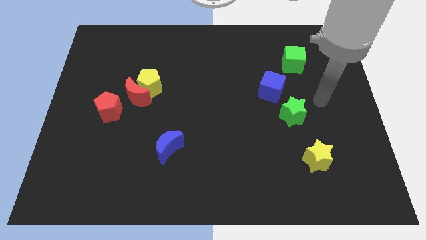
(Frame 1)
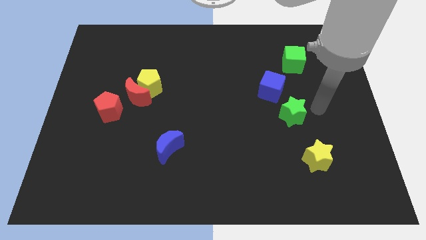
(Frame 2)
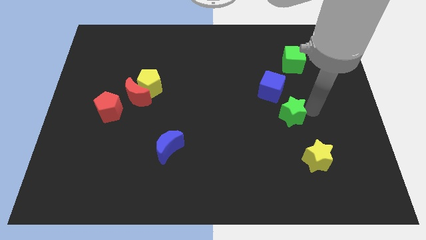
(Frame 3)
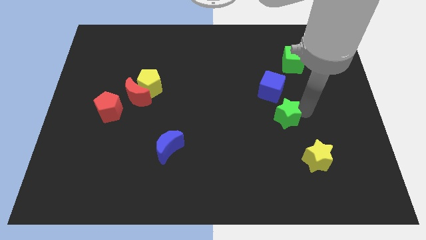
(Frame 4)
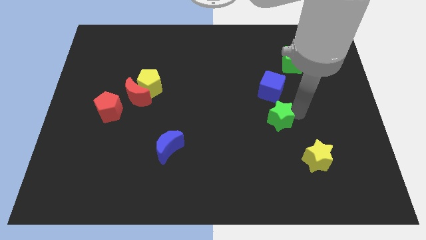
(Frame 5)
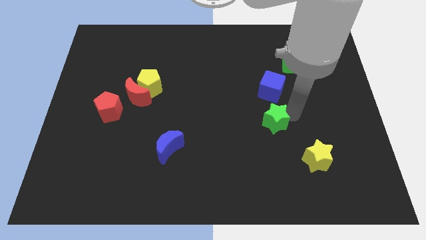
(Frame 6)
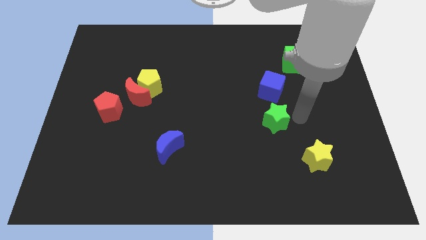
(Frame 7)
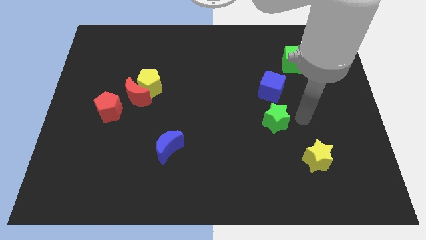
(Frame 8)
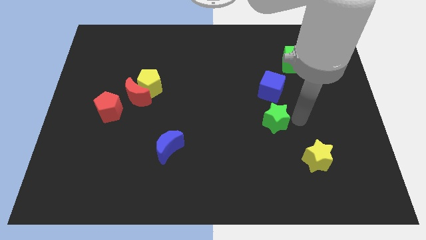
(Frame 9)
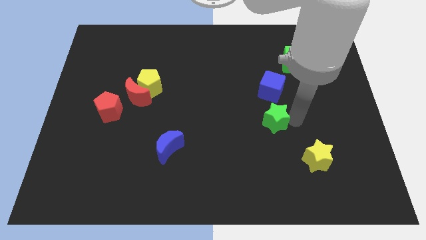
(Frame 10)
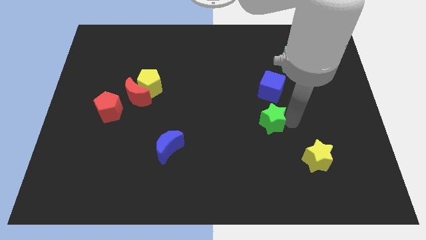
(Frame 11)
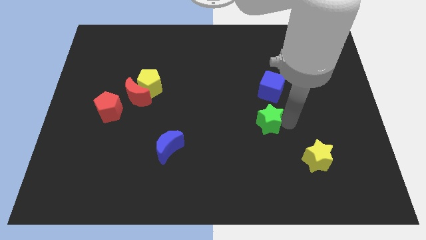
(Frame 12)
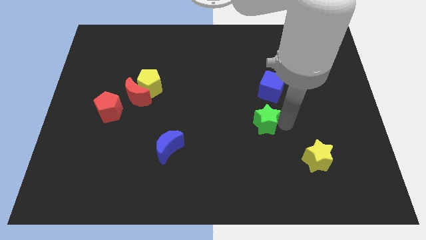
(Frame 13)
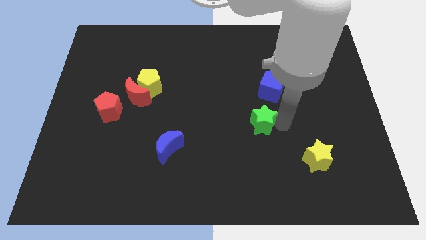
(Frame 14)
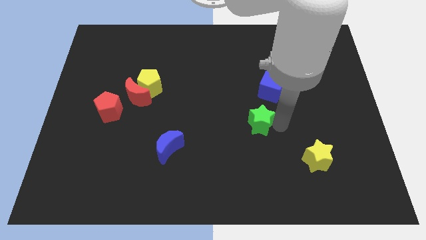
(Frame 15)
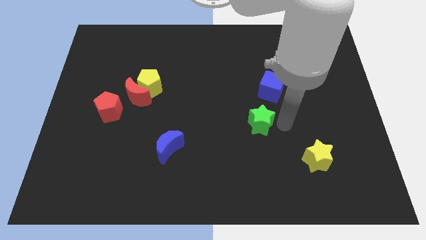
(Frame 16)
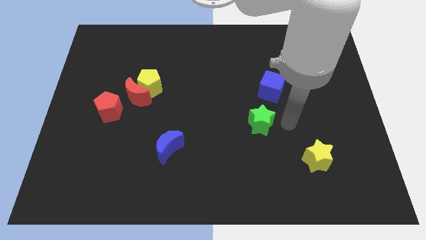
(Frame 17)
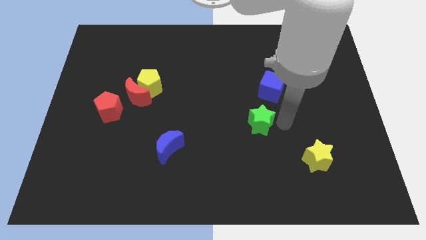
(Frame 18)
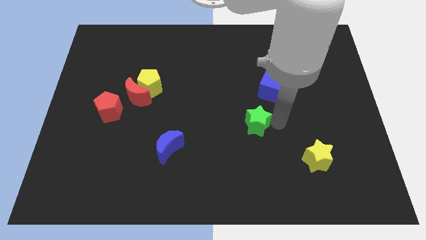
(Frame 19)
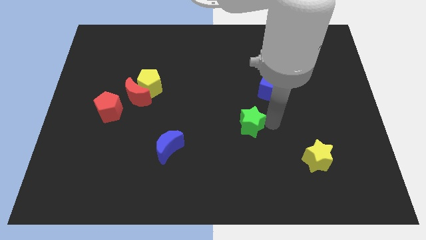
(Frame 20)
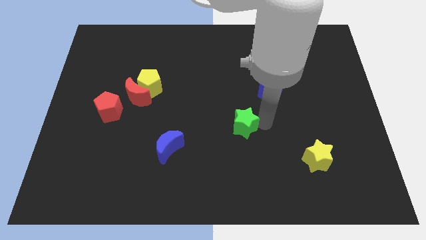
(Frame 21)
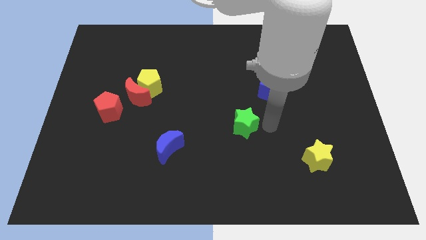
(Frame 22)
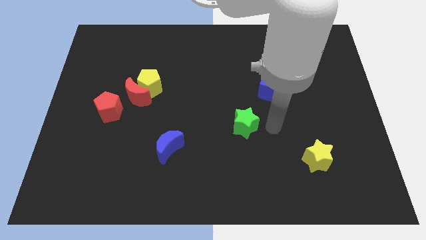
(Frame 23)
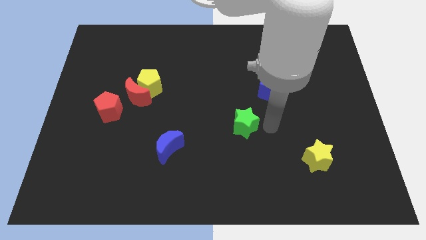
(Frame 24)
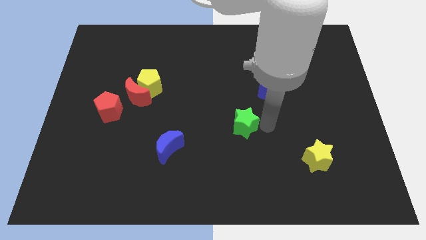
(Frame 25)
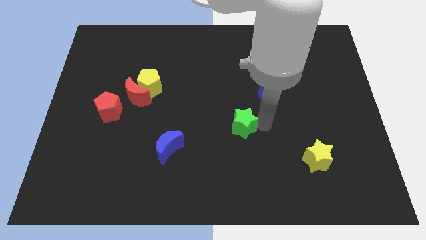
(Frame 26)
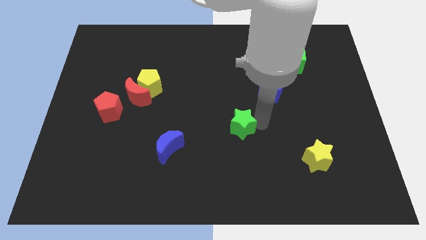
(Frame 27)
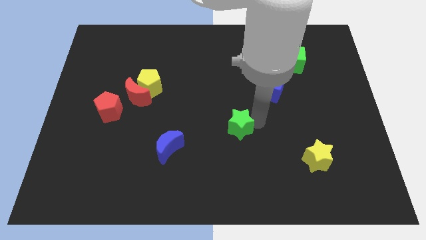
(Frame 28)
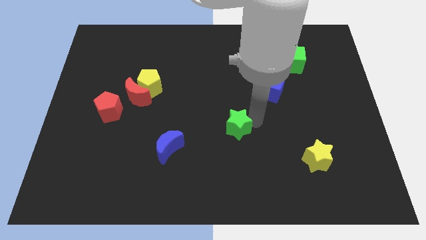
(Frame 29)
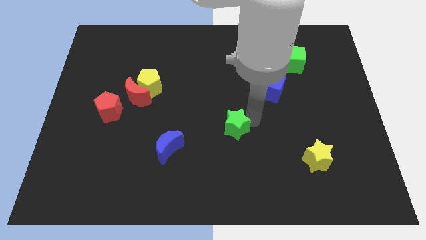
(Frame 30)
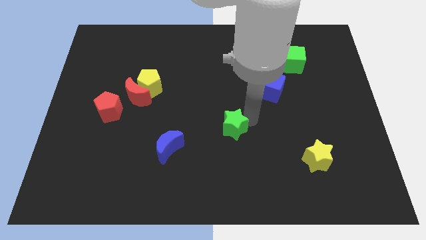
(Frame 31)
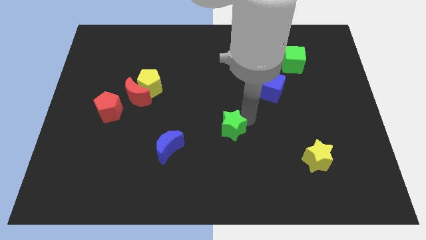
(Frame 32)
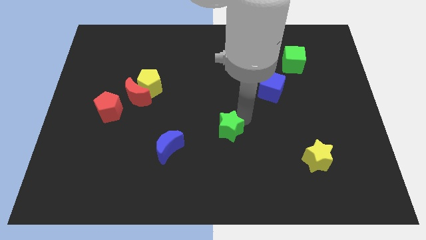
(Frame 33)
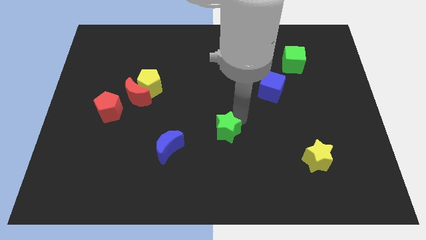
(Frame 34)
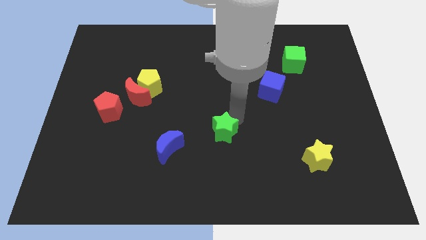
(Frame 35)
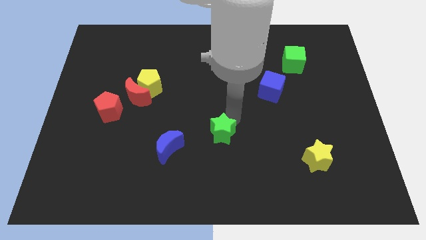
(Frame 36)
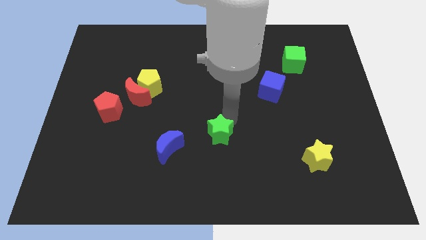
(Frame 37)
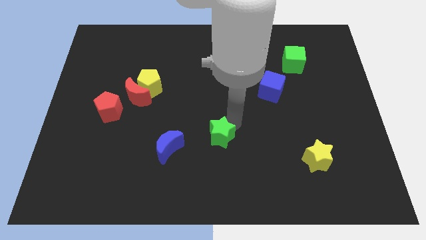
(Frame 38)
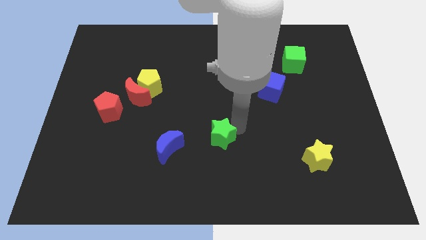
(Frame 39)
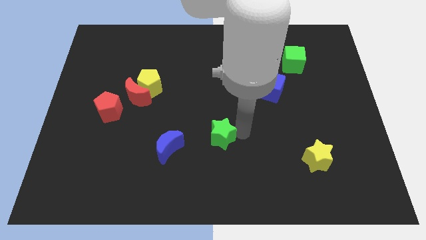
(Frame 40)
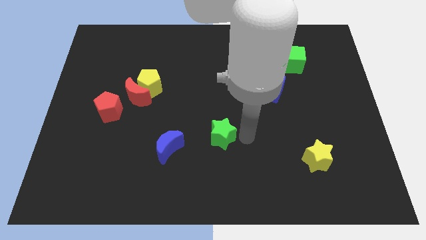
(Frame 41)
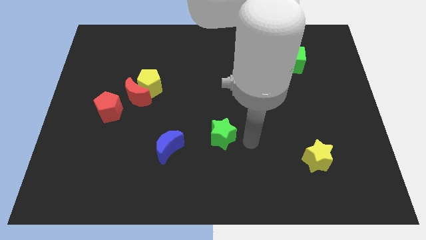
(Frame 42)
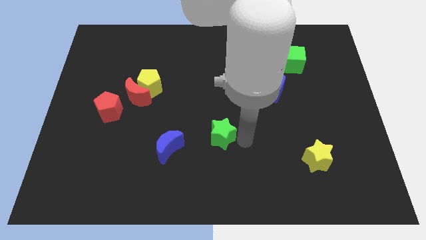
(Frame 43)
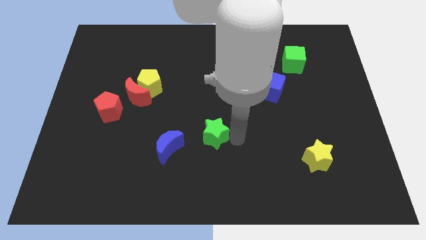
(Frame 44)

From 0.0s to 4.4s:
move the green star diagonally up and to the right of the blue moon

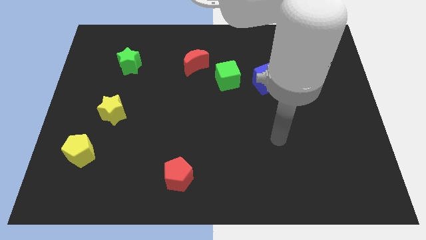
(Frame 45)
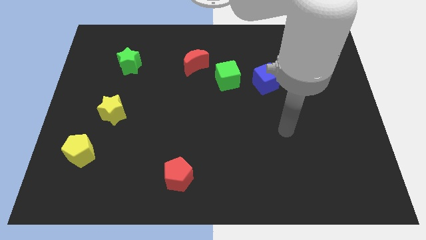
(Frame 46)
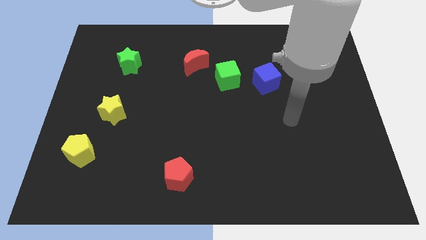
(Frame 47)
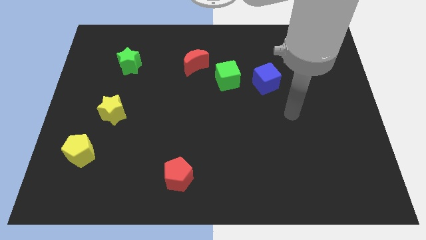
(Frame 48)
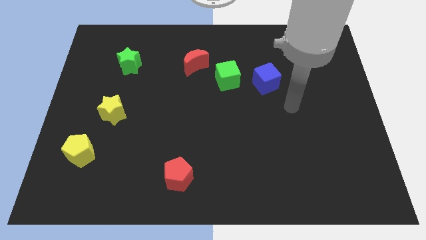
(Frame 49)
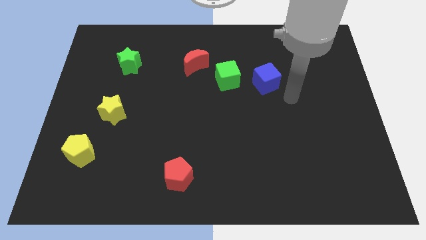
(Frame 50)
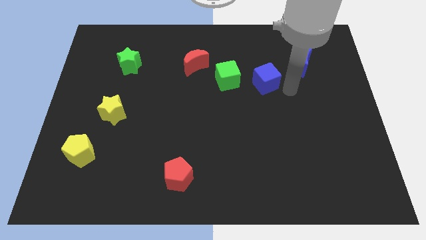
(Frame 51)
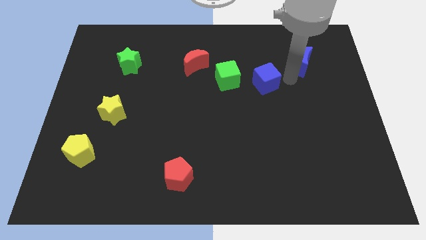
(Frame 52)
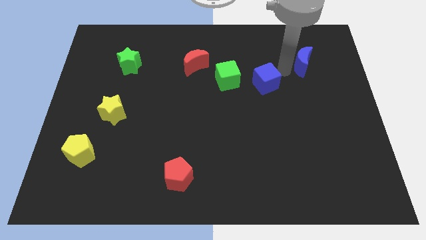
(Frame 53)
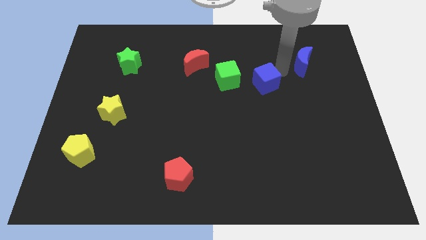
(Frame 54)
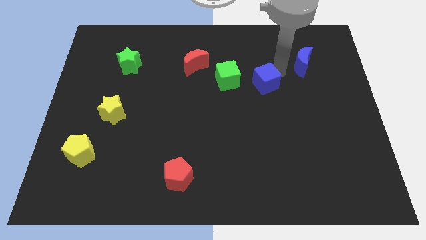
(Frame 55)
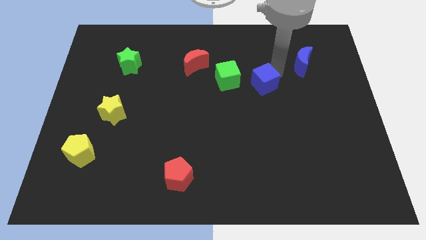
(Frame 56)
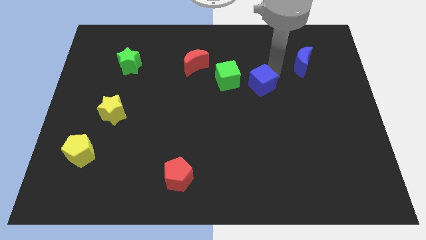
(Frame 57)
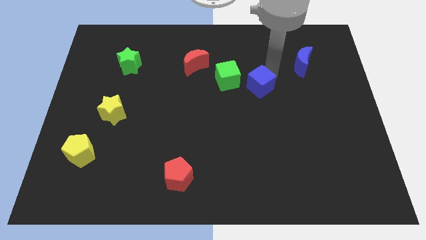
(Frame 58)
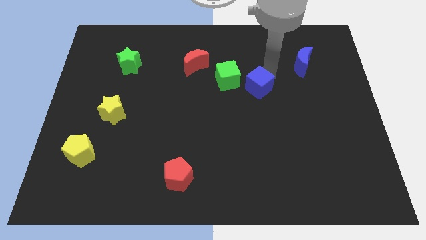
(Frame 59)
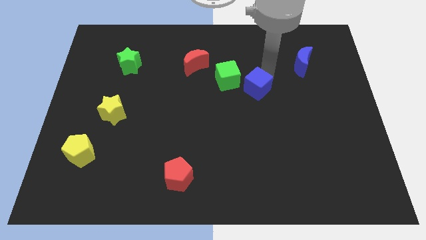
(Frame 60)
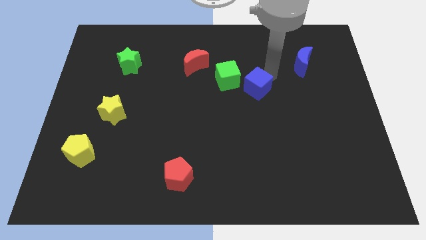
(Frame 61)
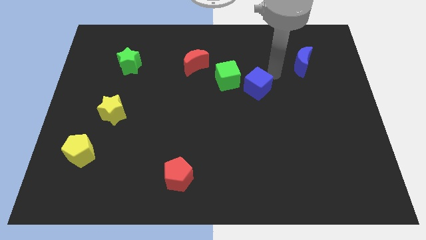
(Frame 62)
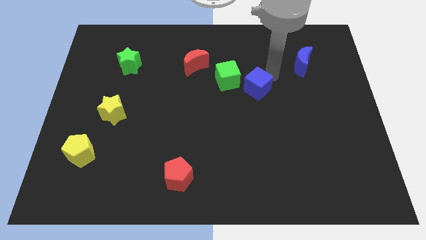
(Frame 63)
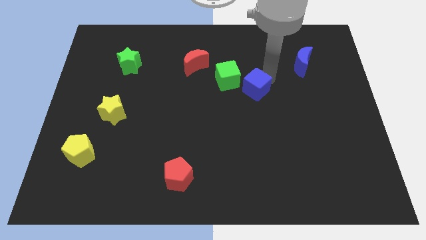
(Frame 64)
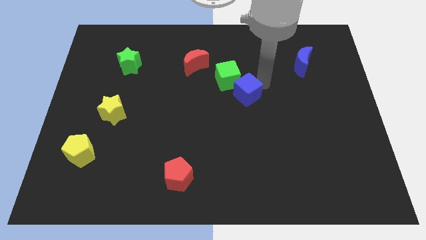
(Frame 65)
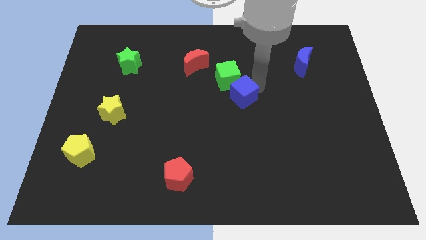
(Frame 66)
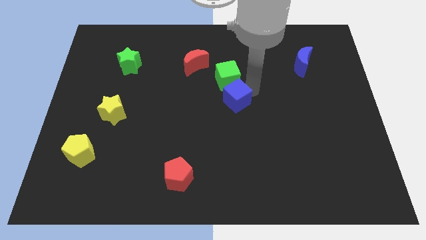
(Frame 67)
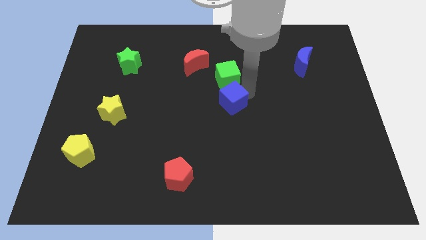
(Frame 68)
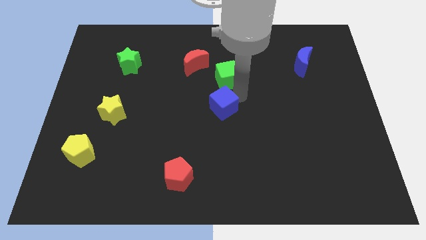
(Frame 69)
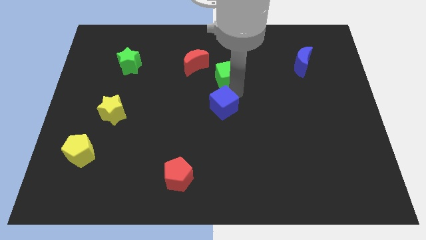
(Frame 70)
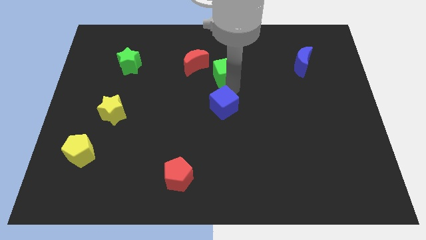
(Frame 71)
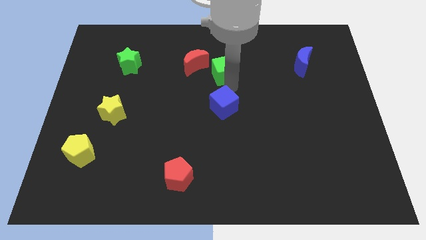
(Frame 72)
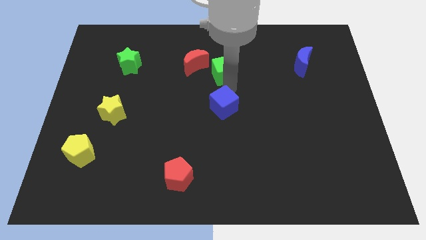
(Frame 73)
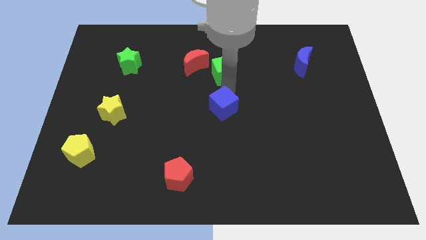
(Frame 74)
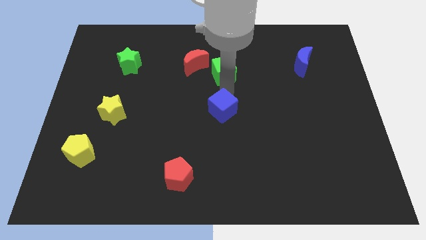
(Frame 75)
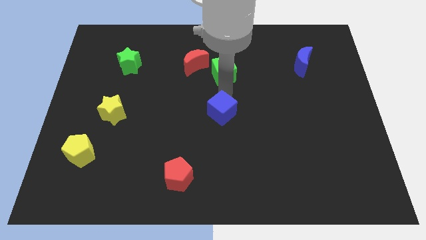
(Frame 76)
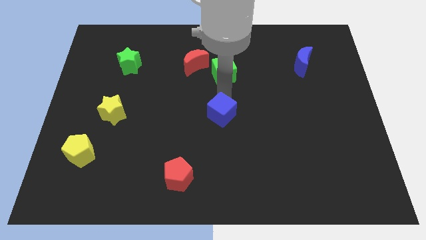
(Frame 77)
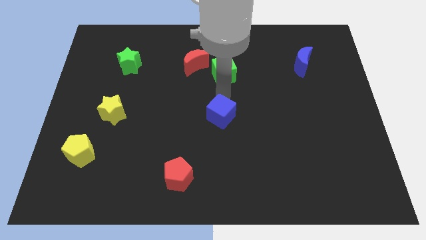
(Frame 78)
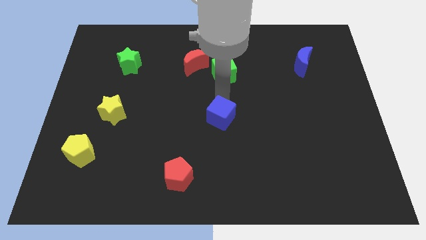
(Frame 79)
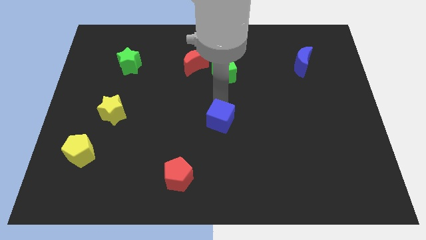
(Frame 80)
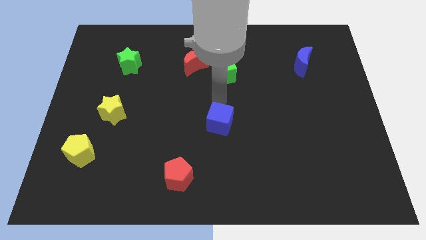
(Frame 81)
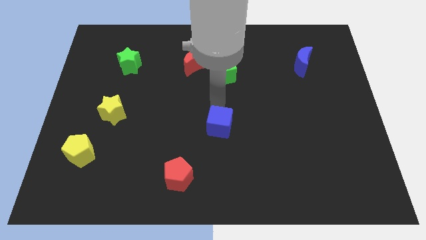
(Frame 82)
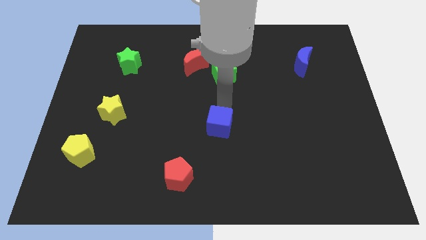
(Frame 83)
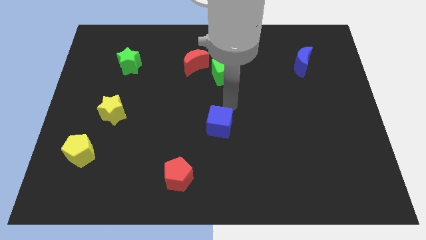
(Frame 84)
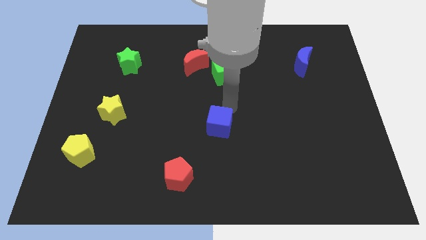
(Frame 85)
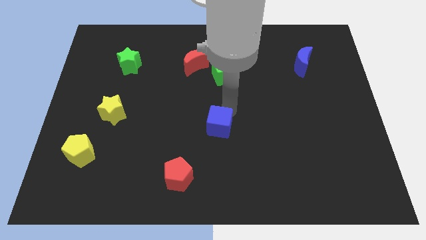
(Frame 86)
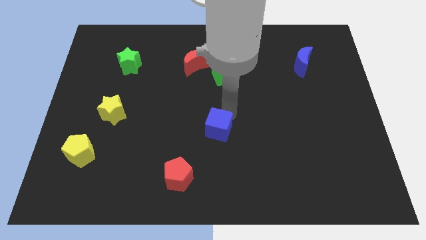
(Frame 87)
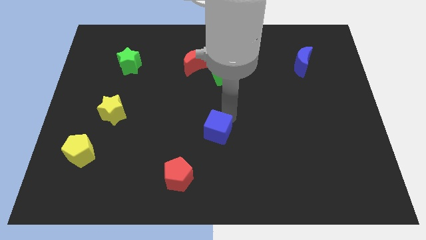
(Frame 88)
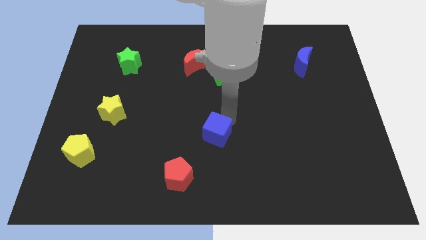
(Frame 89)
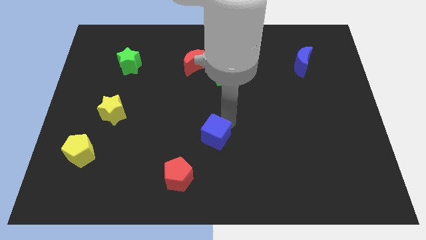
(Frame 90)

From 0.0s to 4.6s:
put the blue cube diagonally up and to the right of the red pentagon
